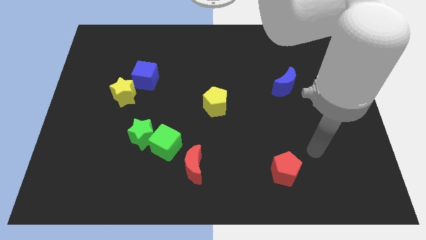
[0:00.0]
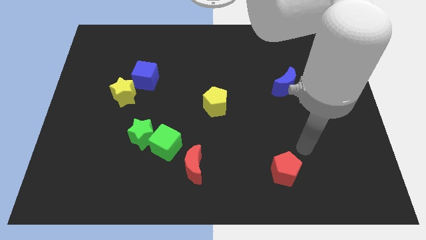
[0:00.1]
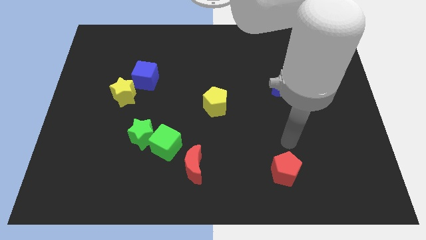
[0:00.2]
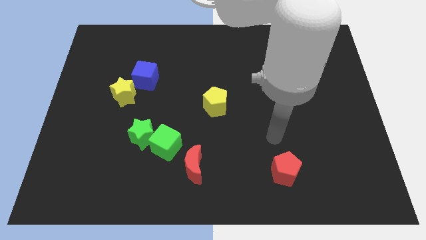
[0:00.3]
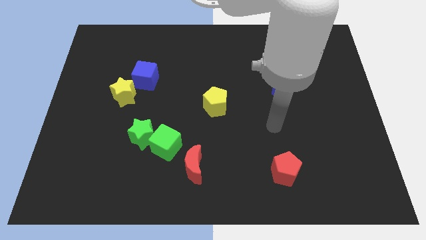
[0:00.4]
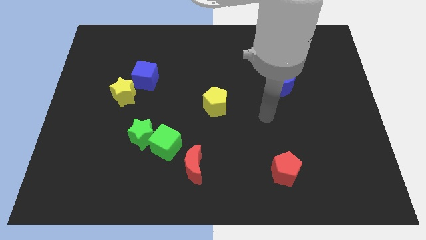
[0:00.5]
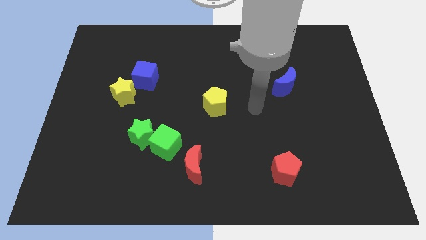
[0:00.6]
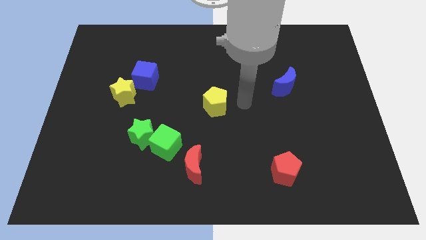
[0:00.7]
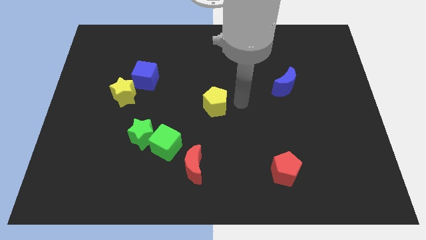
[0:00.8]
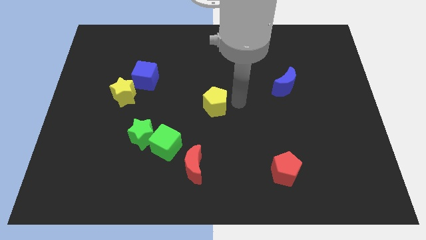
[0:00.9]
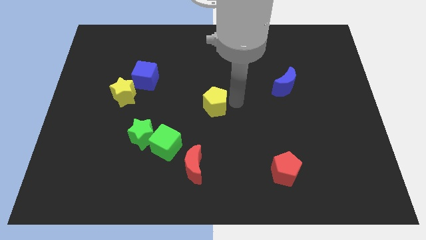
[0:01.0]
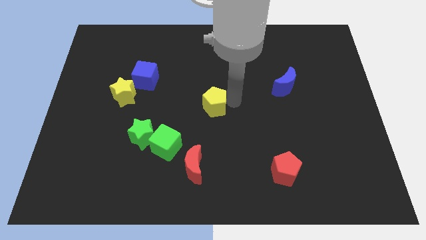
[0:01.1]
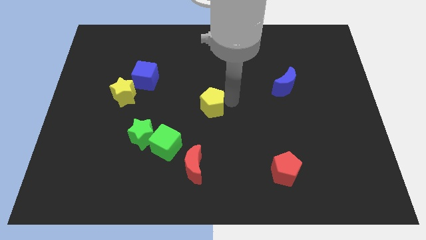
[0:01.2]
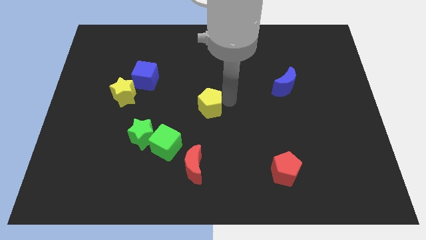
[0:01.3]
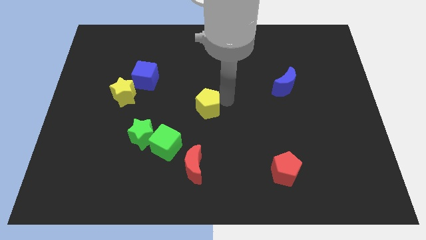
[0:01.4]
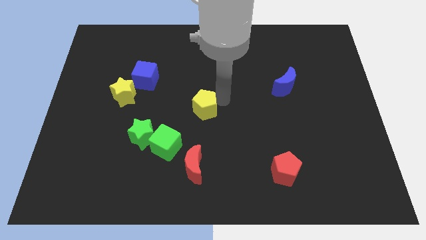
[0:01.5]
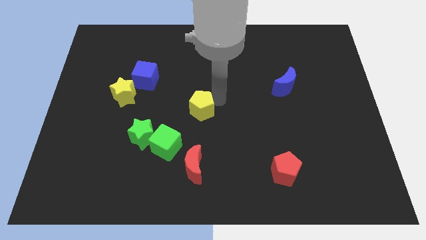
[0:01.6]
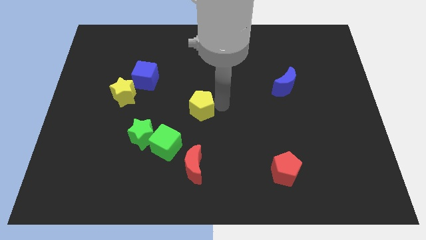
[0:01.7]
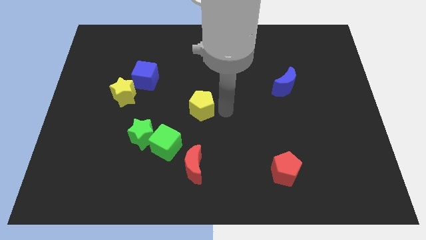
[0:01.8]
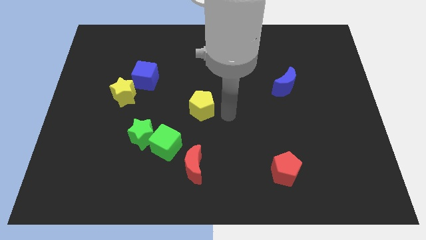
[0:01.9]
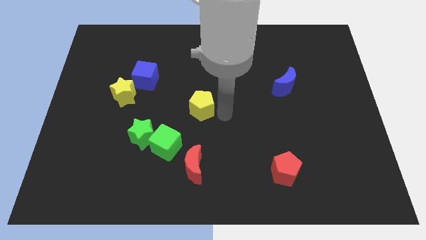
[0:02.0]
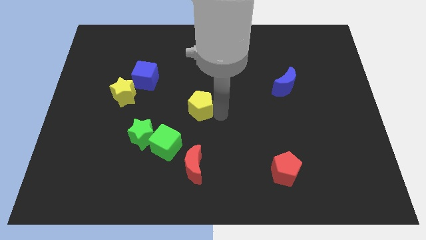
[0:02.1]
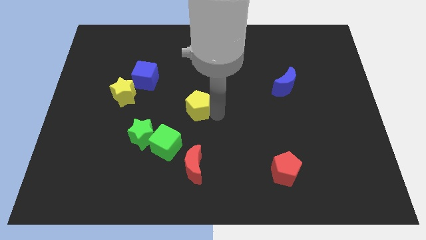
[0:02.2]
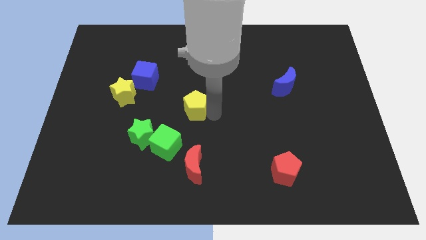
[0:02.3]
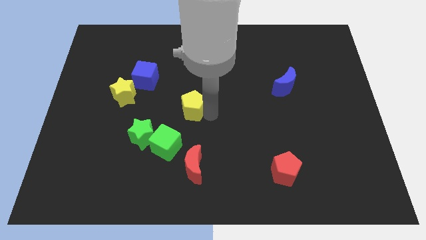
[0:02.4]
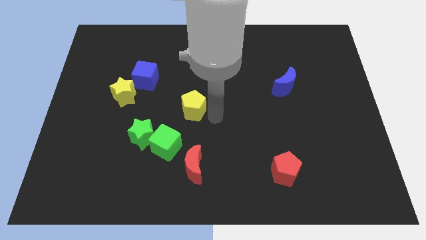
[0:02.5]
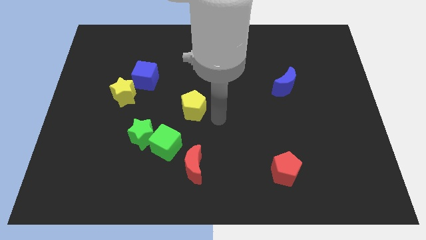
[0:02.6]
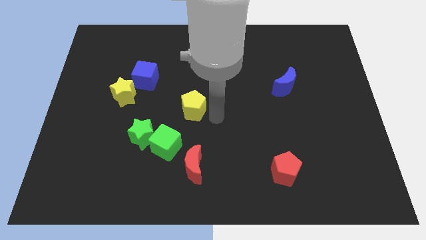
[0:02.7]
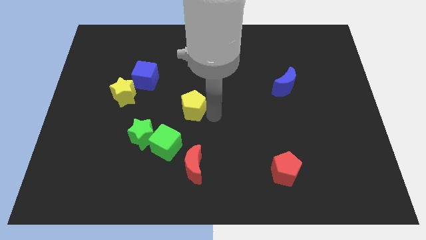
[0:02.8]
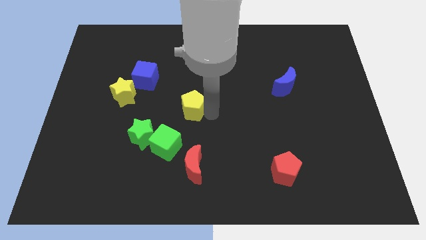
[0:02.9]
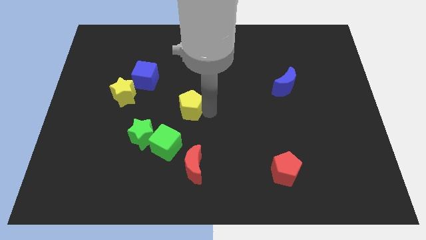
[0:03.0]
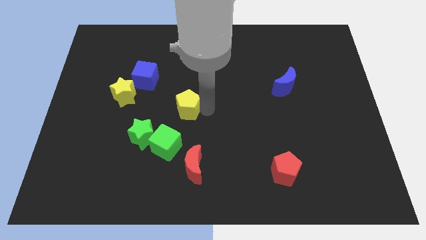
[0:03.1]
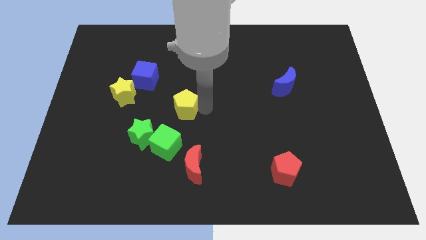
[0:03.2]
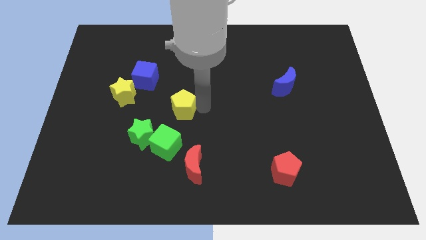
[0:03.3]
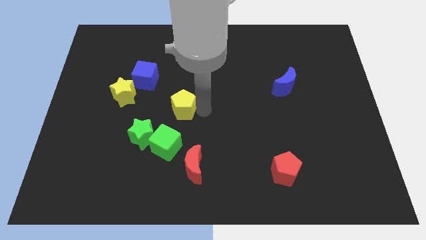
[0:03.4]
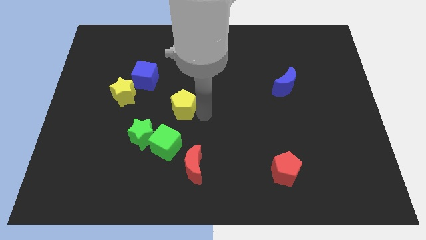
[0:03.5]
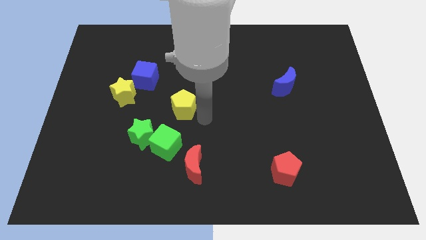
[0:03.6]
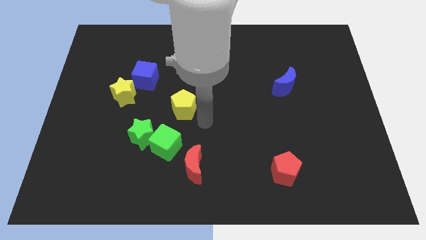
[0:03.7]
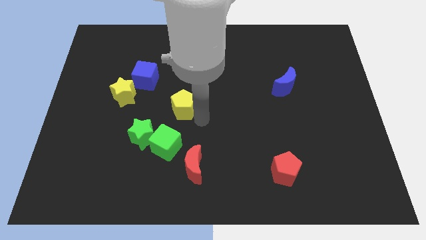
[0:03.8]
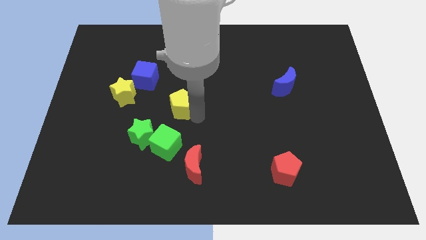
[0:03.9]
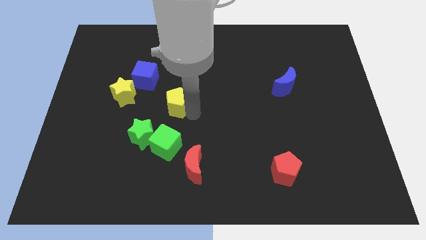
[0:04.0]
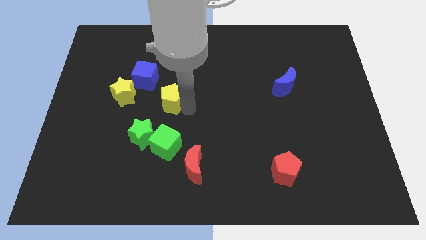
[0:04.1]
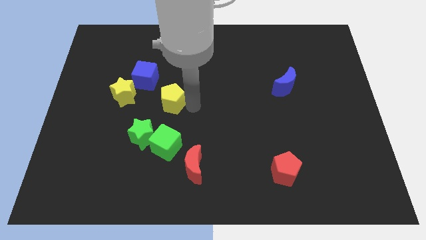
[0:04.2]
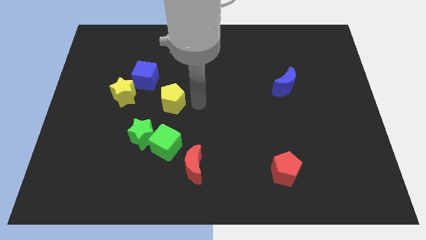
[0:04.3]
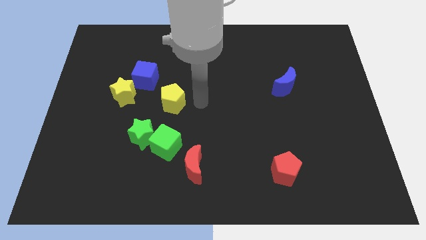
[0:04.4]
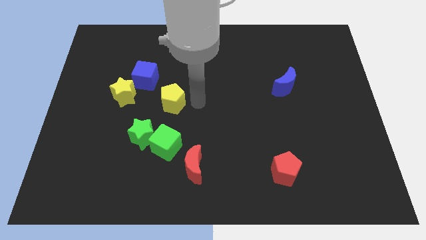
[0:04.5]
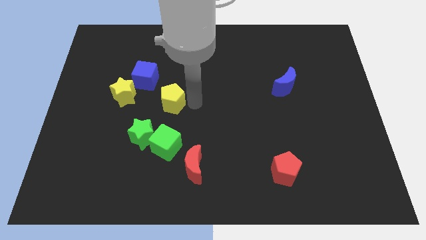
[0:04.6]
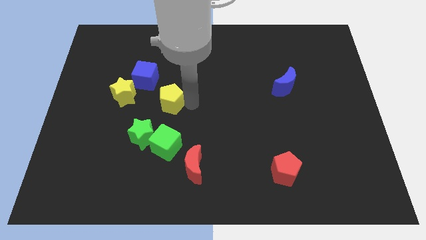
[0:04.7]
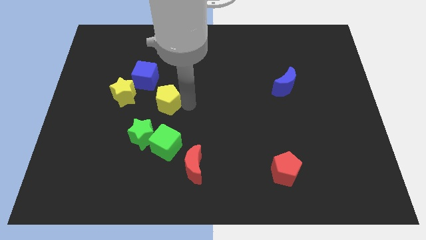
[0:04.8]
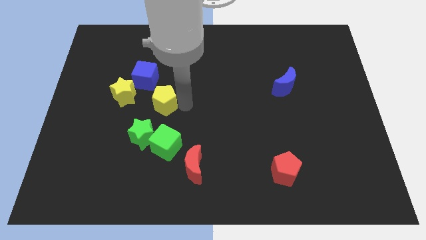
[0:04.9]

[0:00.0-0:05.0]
move the yellow pentagon to the top side of the green star

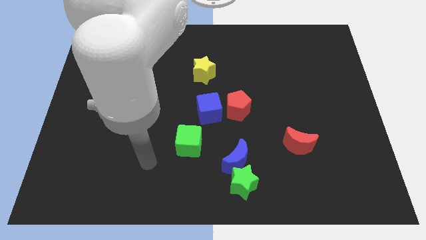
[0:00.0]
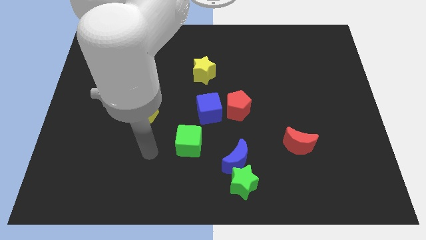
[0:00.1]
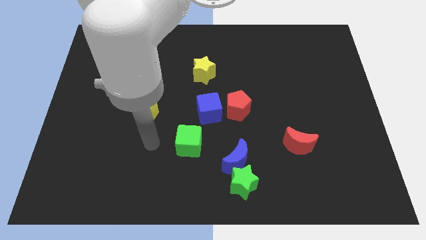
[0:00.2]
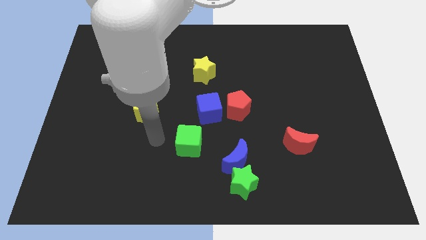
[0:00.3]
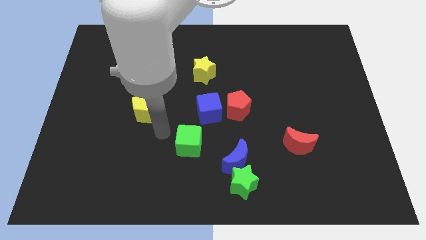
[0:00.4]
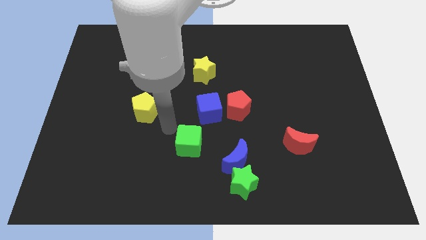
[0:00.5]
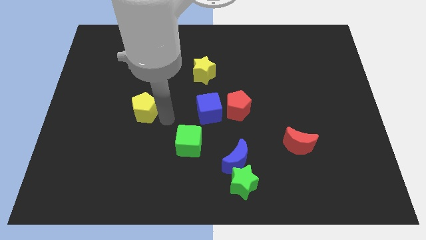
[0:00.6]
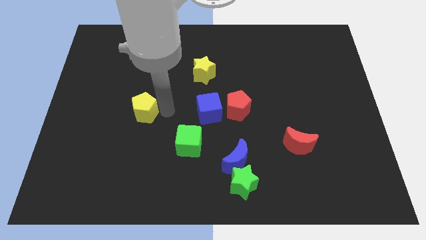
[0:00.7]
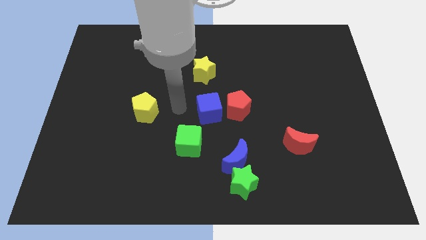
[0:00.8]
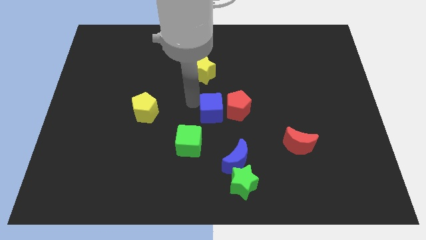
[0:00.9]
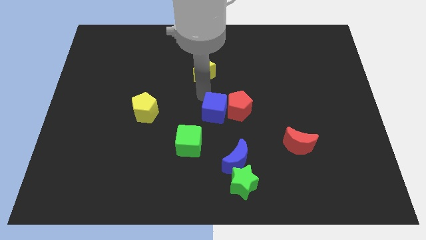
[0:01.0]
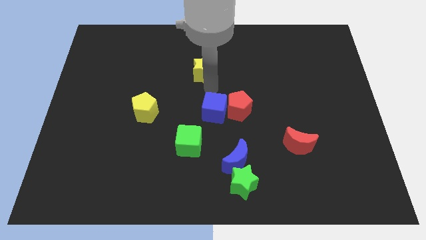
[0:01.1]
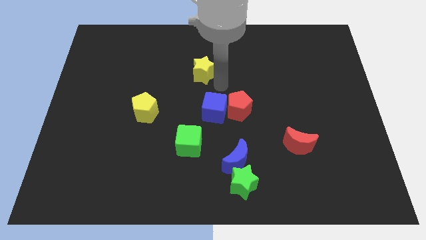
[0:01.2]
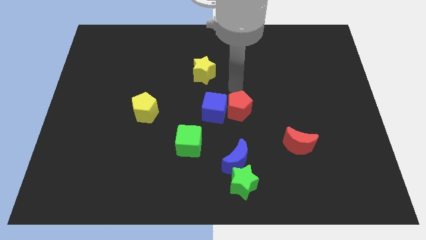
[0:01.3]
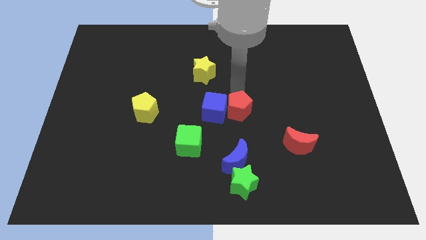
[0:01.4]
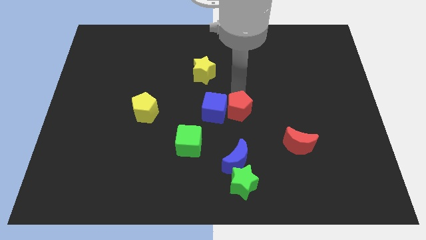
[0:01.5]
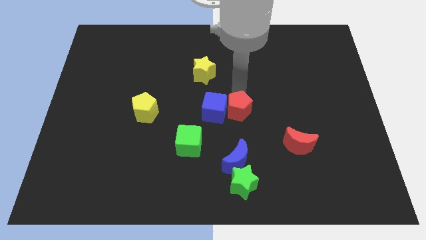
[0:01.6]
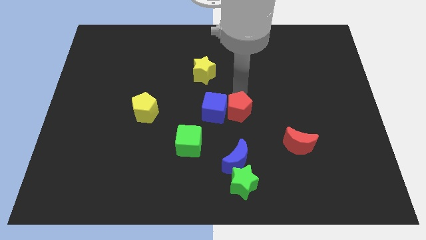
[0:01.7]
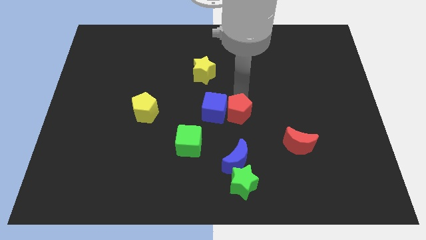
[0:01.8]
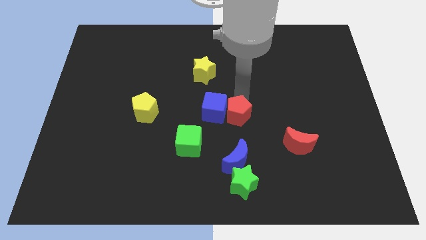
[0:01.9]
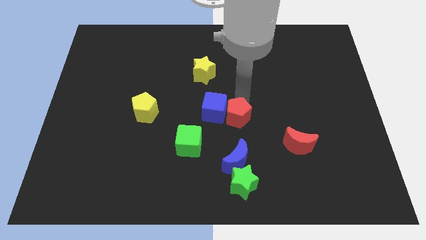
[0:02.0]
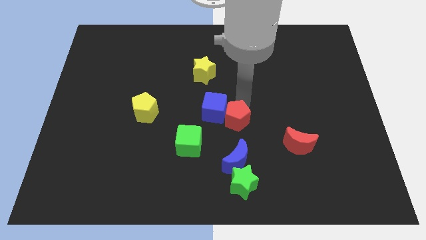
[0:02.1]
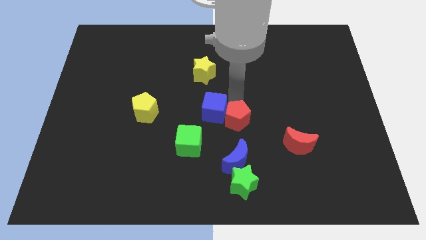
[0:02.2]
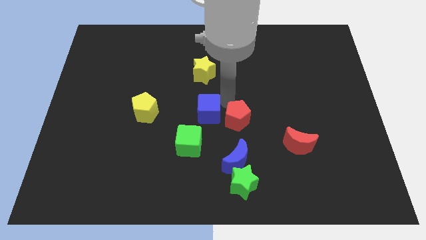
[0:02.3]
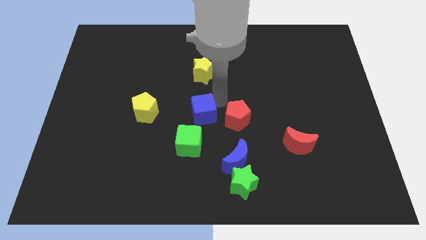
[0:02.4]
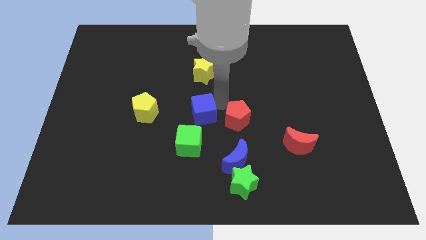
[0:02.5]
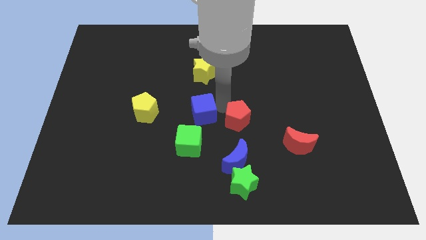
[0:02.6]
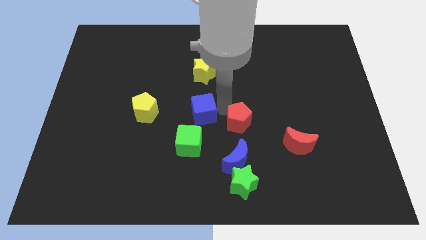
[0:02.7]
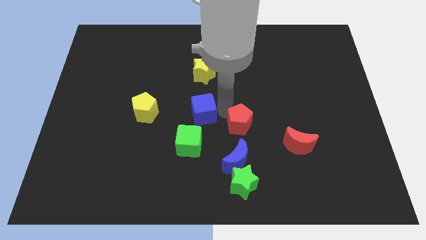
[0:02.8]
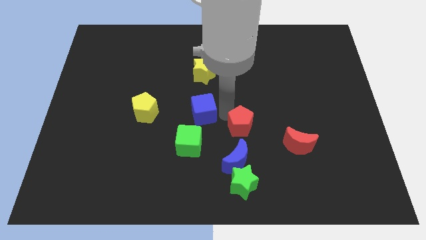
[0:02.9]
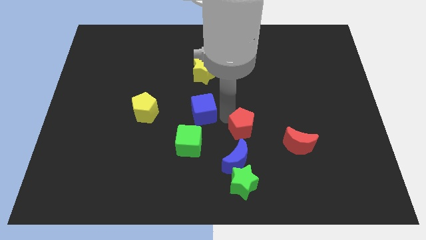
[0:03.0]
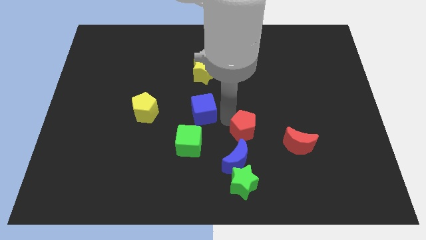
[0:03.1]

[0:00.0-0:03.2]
slide the red pentagon diagonally up and to the right of the blue moon
